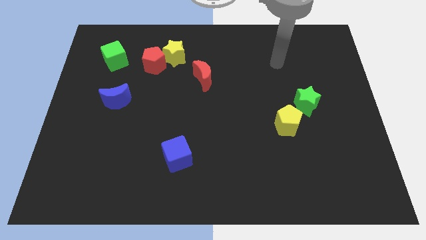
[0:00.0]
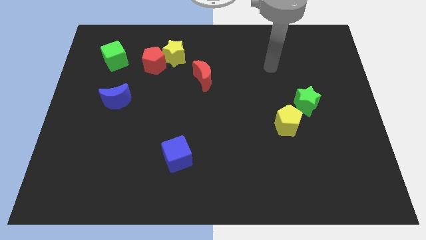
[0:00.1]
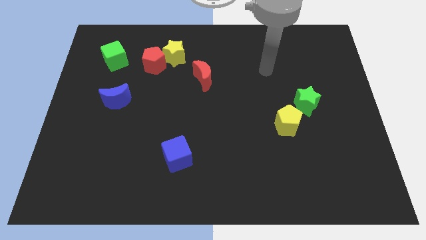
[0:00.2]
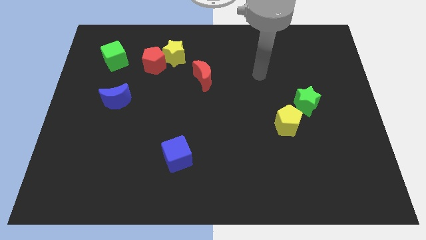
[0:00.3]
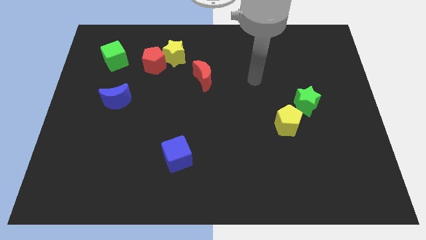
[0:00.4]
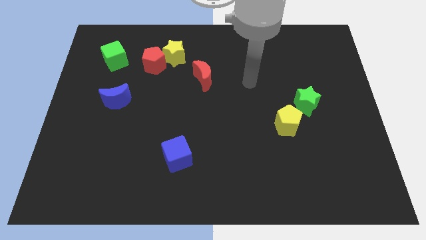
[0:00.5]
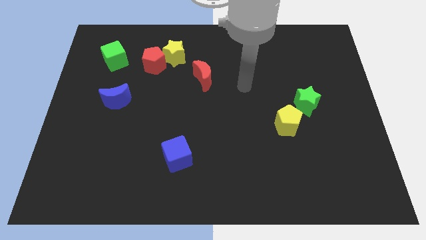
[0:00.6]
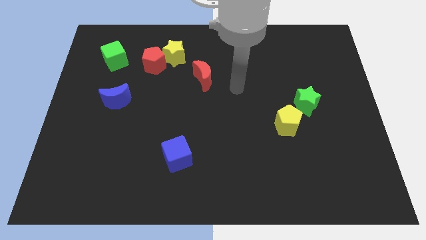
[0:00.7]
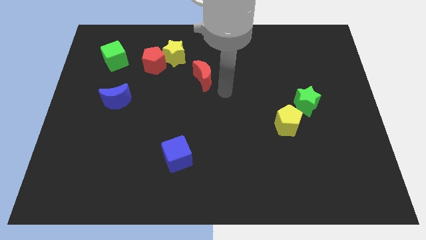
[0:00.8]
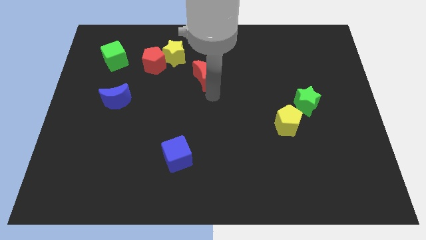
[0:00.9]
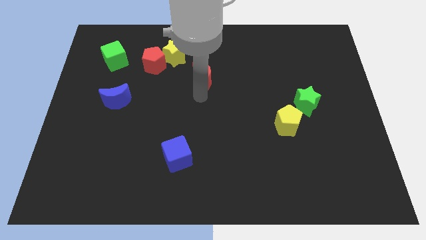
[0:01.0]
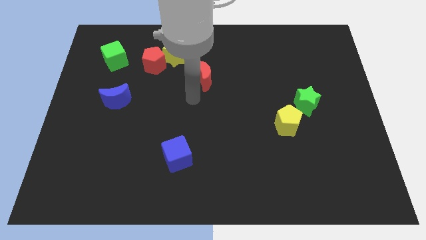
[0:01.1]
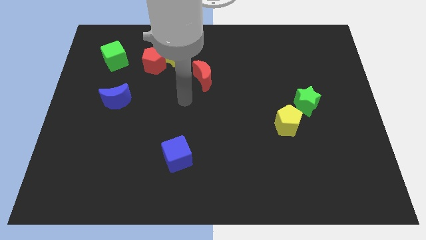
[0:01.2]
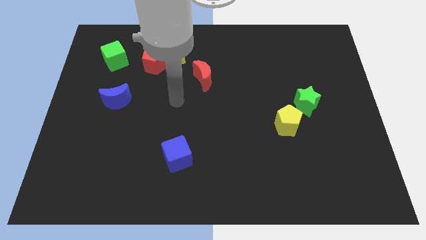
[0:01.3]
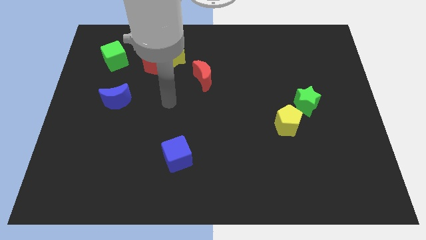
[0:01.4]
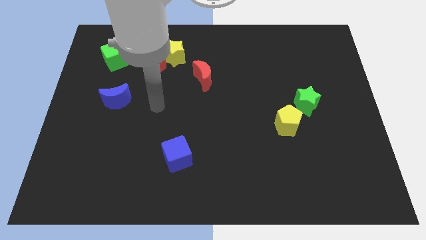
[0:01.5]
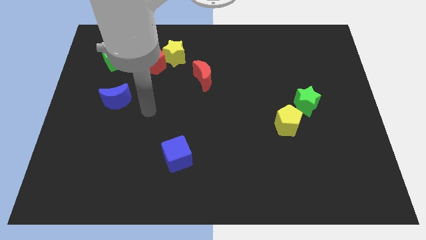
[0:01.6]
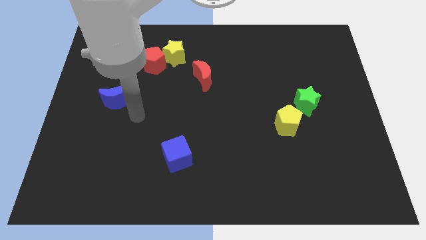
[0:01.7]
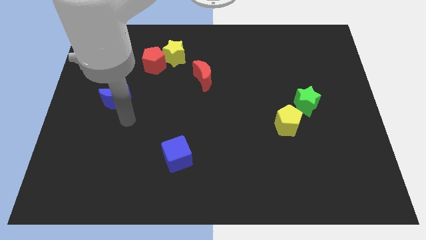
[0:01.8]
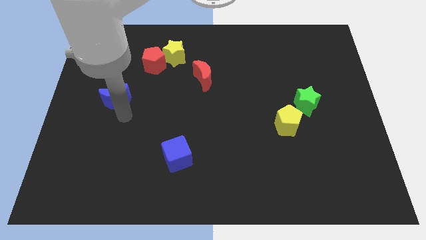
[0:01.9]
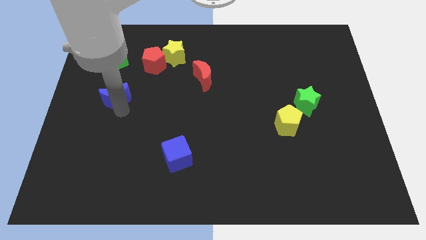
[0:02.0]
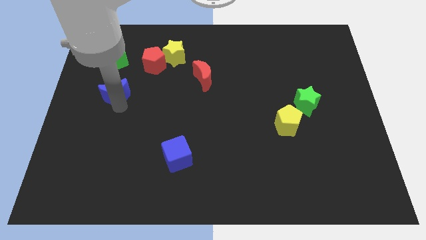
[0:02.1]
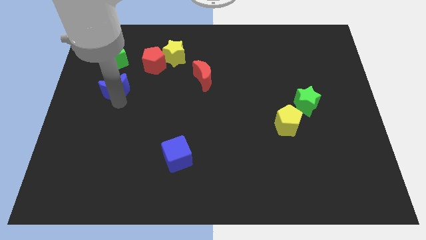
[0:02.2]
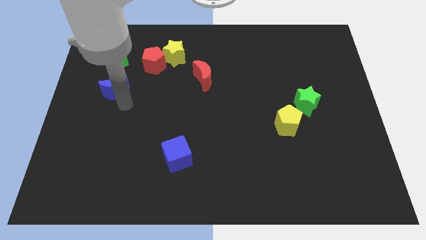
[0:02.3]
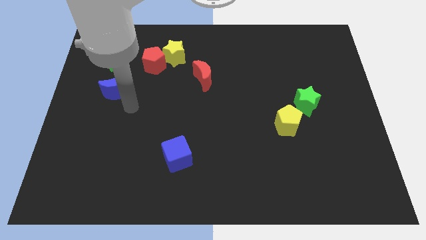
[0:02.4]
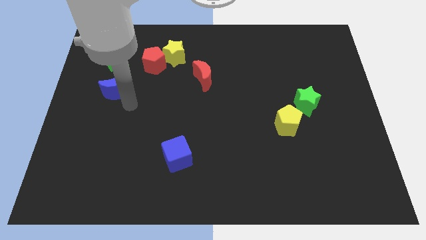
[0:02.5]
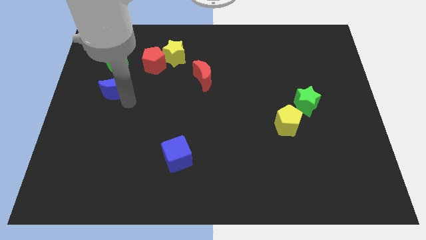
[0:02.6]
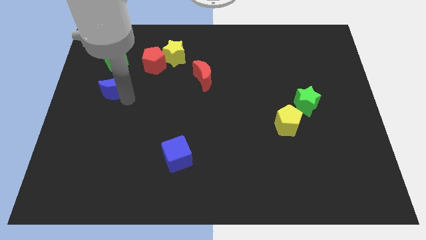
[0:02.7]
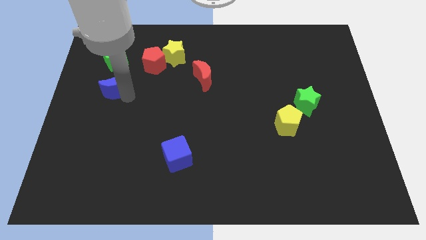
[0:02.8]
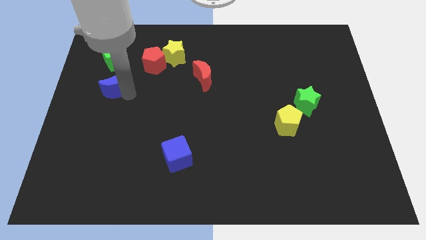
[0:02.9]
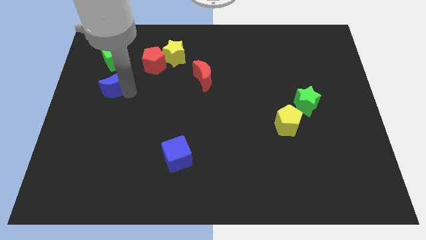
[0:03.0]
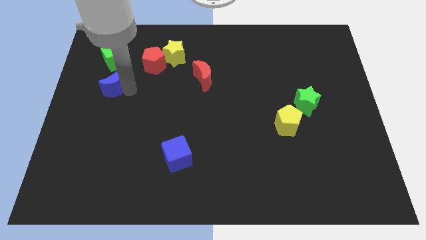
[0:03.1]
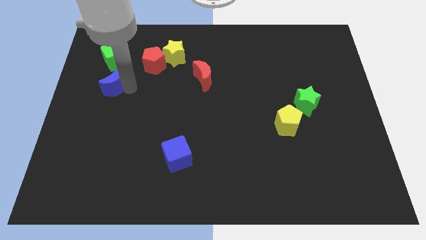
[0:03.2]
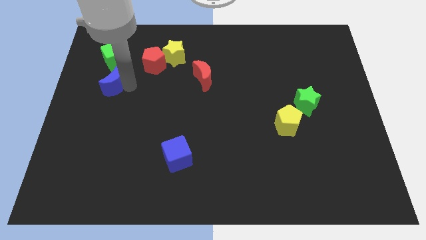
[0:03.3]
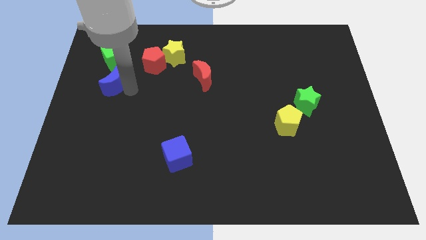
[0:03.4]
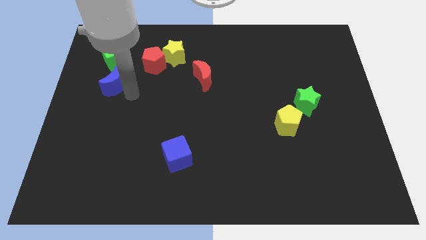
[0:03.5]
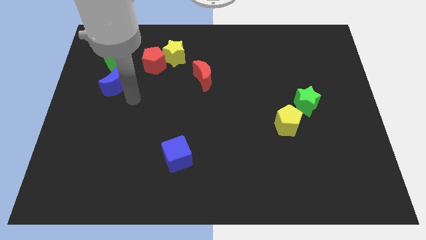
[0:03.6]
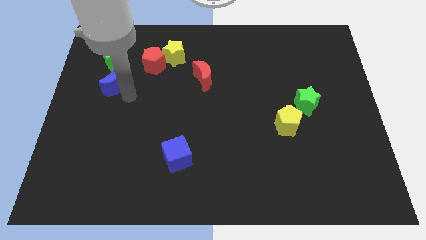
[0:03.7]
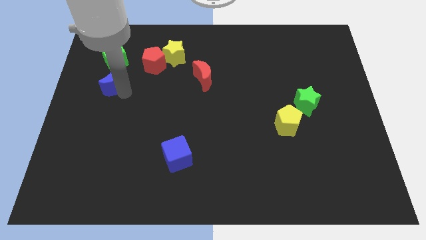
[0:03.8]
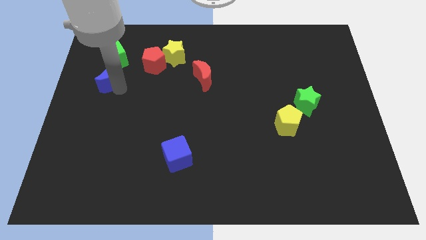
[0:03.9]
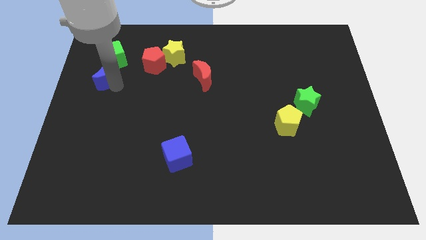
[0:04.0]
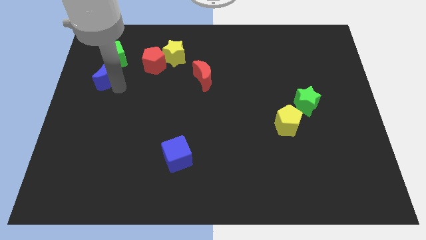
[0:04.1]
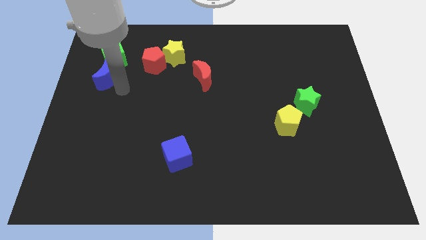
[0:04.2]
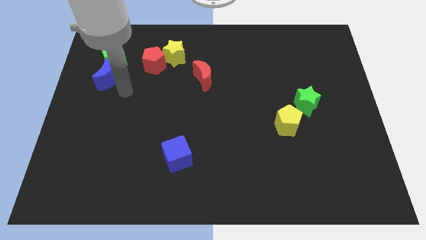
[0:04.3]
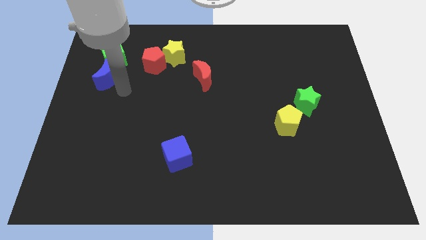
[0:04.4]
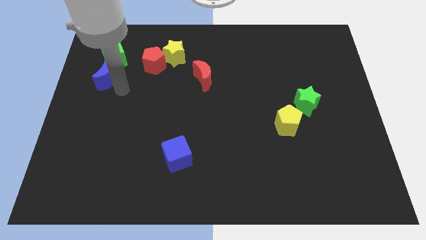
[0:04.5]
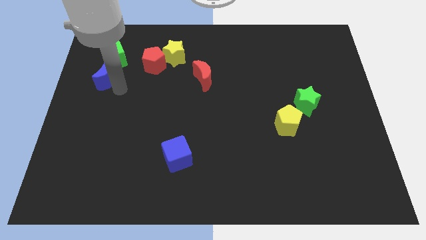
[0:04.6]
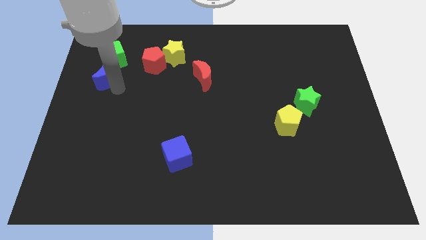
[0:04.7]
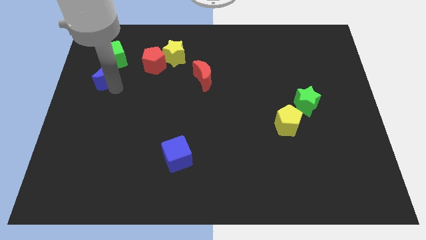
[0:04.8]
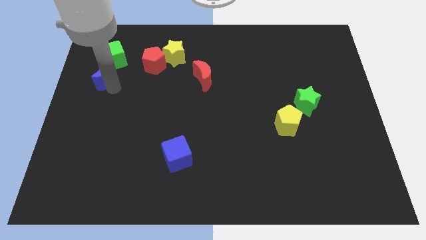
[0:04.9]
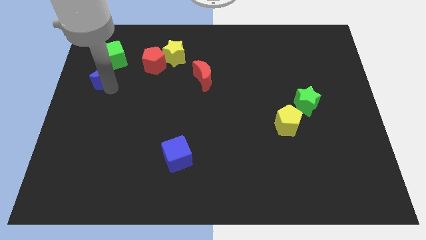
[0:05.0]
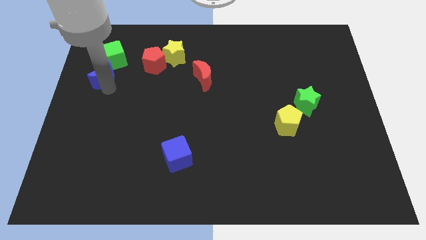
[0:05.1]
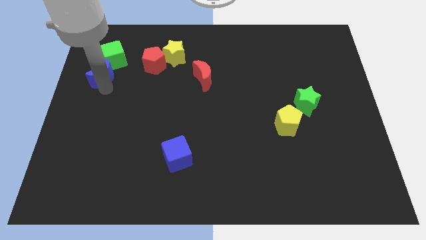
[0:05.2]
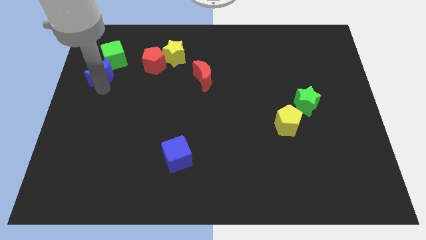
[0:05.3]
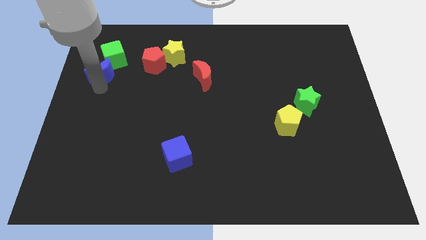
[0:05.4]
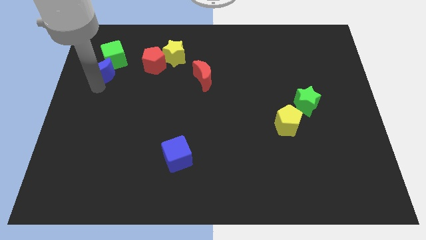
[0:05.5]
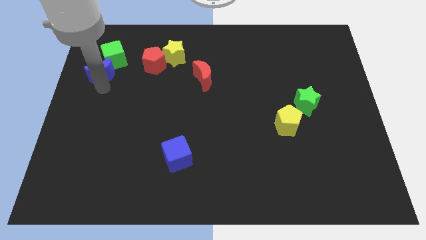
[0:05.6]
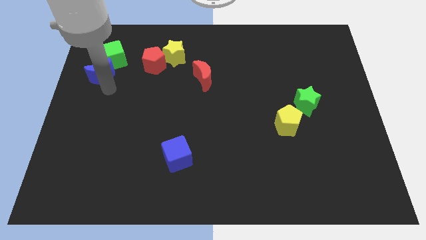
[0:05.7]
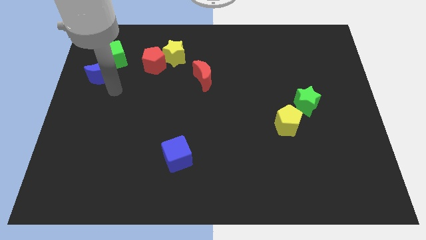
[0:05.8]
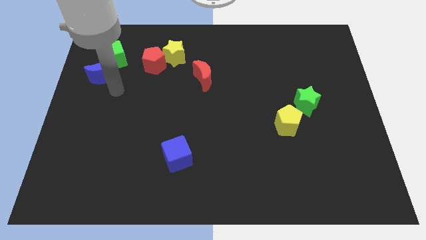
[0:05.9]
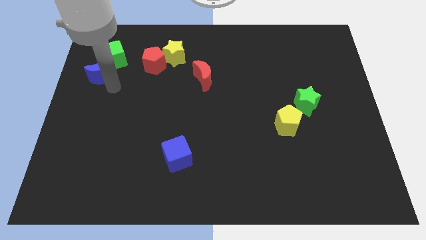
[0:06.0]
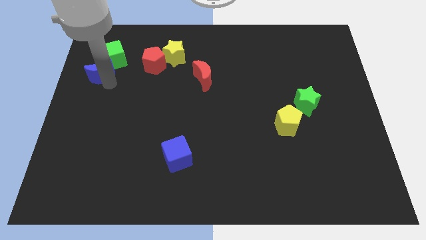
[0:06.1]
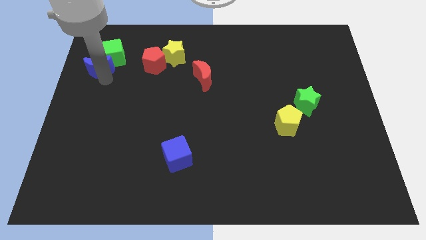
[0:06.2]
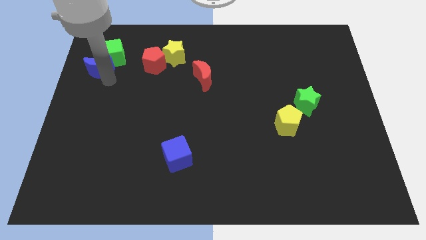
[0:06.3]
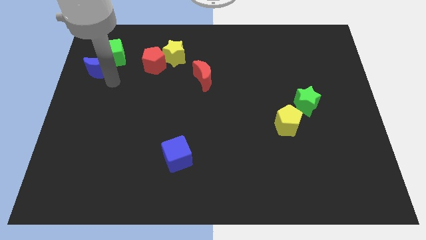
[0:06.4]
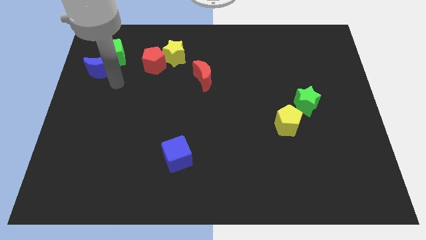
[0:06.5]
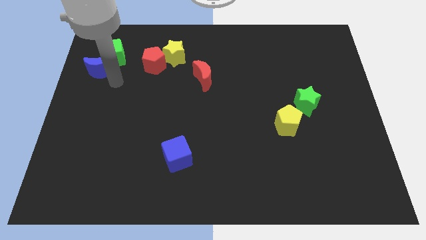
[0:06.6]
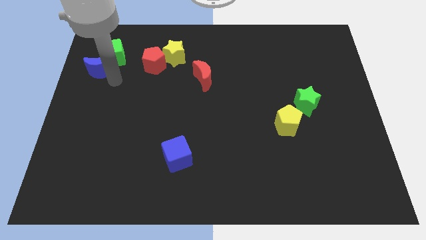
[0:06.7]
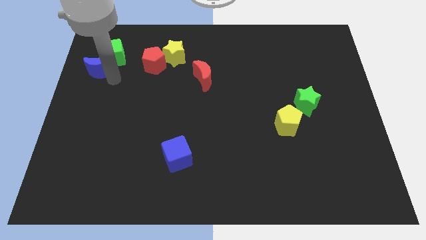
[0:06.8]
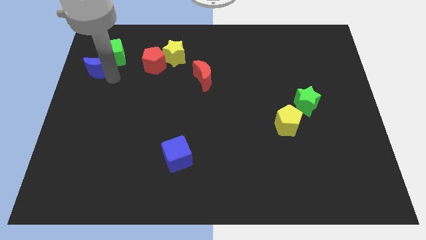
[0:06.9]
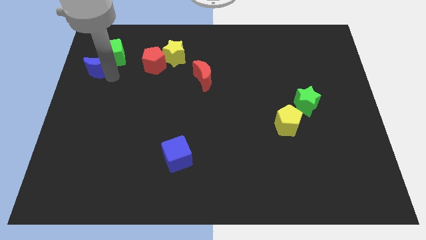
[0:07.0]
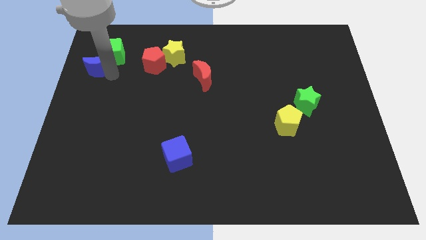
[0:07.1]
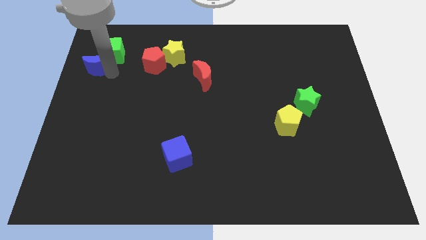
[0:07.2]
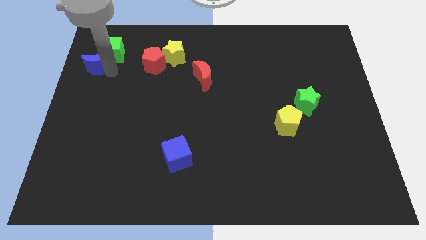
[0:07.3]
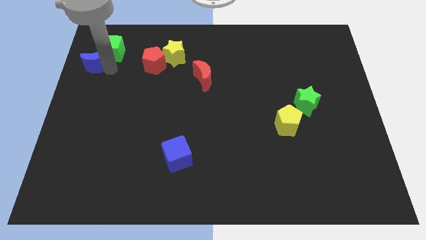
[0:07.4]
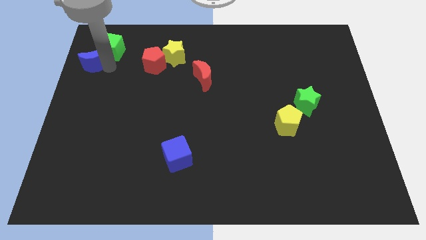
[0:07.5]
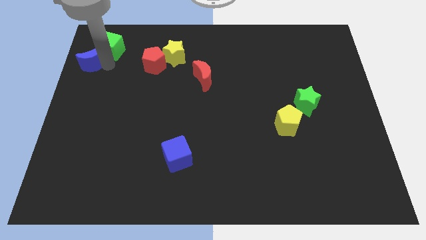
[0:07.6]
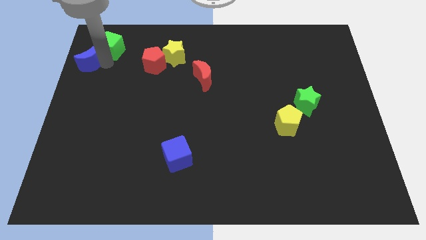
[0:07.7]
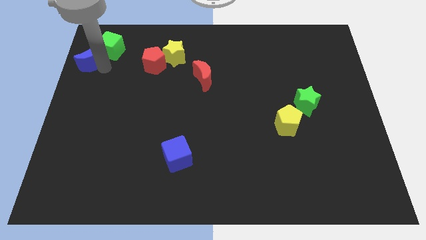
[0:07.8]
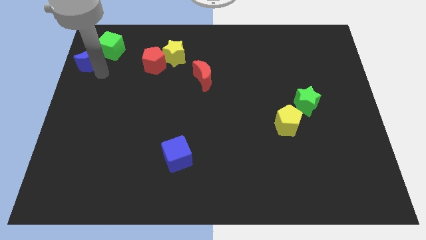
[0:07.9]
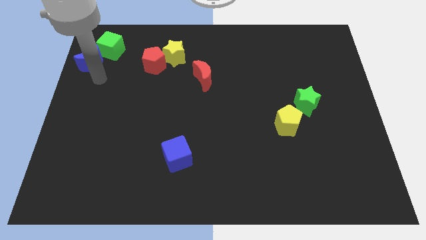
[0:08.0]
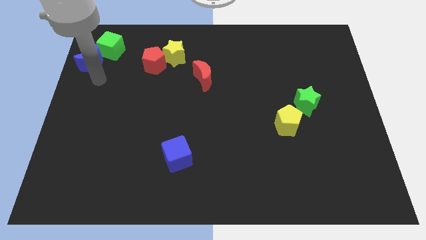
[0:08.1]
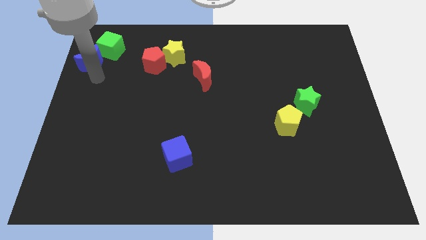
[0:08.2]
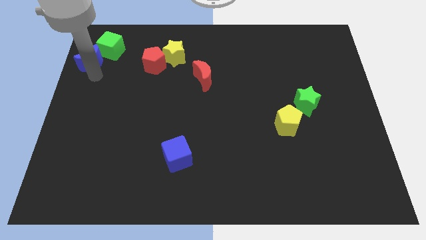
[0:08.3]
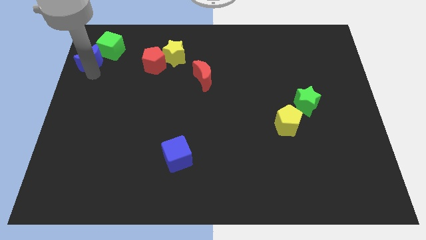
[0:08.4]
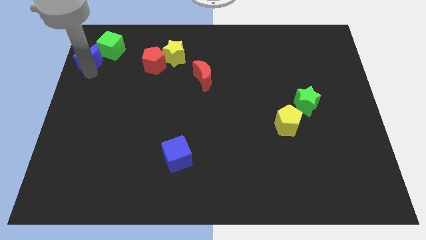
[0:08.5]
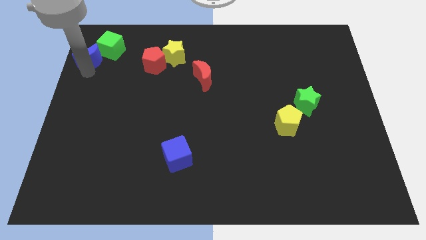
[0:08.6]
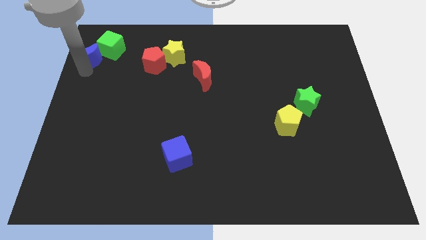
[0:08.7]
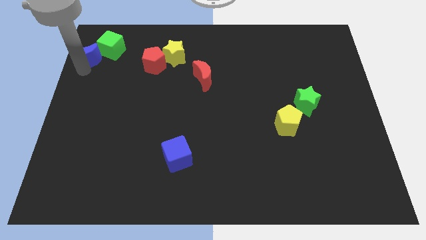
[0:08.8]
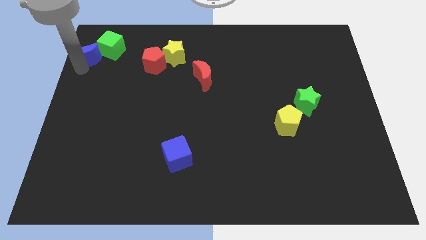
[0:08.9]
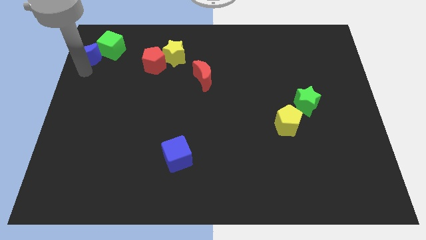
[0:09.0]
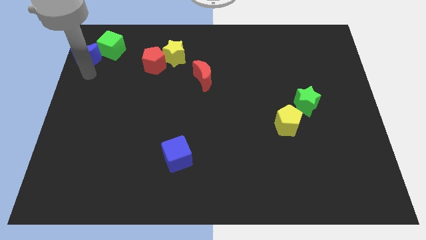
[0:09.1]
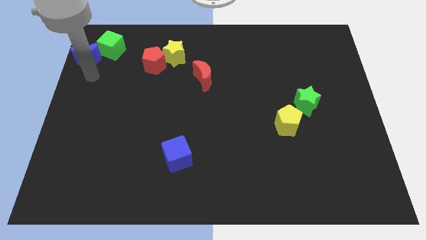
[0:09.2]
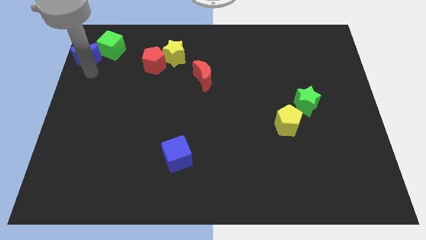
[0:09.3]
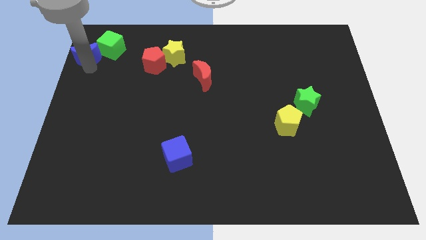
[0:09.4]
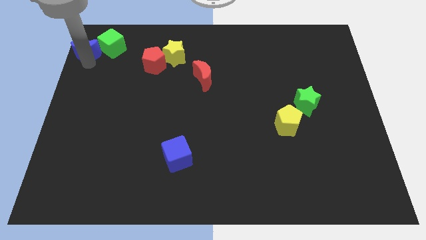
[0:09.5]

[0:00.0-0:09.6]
move the blue moon to the upper left corner
